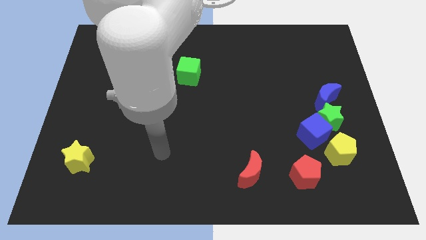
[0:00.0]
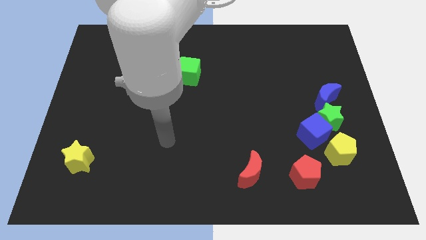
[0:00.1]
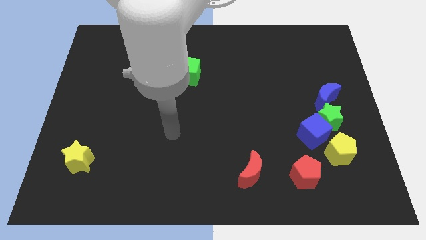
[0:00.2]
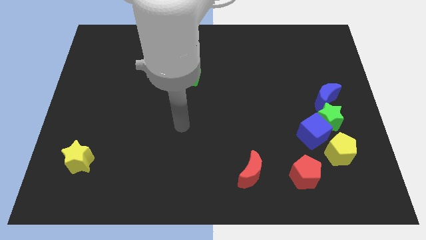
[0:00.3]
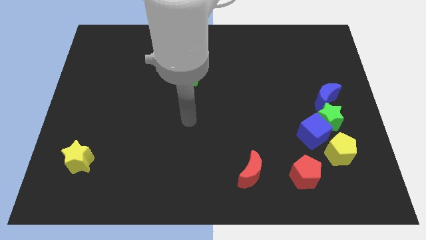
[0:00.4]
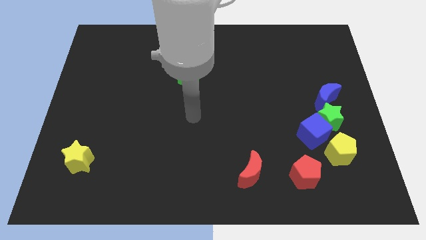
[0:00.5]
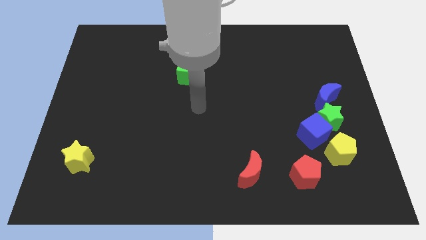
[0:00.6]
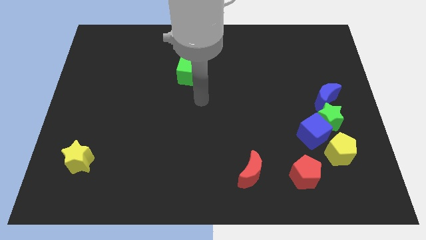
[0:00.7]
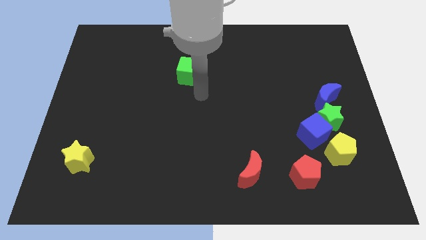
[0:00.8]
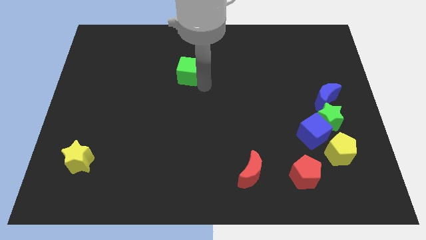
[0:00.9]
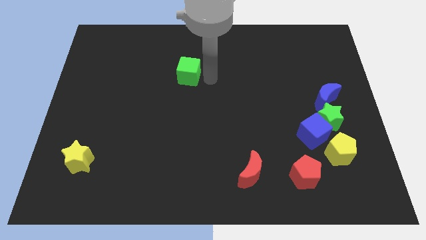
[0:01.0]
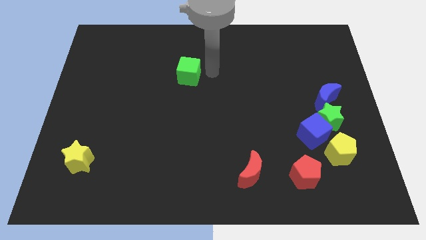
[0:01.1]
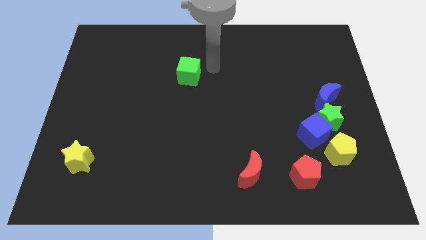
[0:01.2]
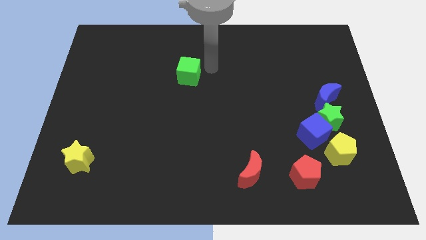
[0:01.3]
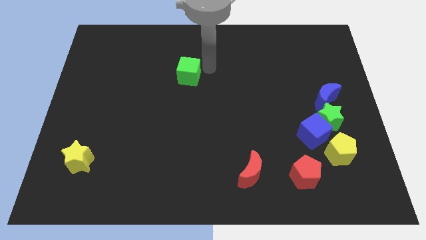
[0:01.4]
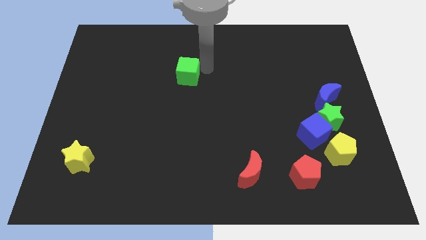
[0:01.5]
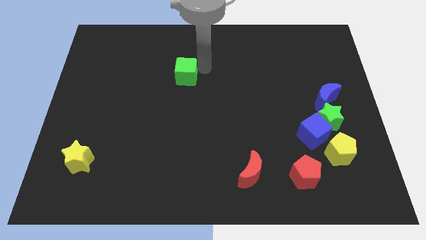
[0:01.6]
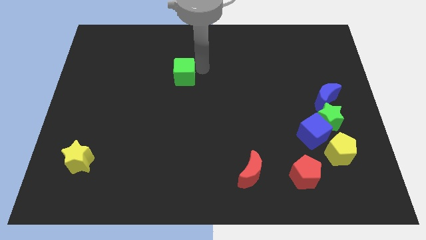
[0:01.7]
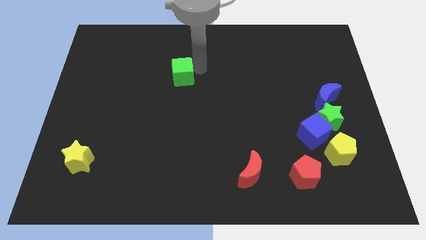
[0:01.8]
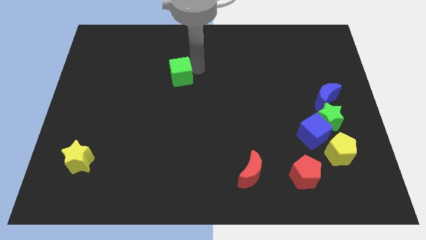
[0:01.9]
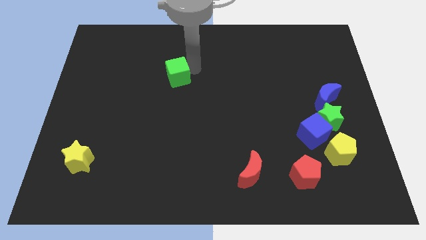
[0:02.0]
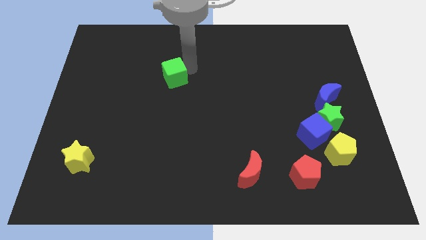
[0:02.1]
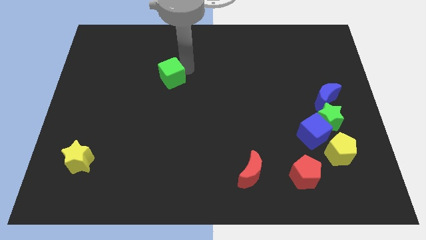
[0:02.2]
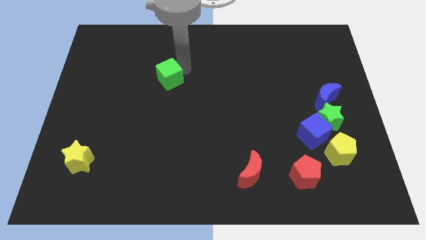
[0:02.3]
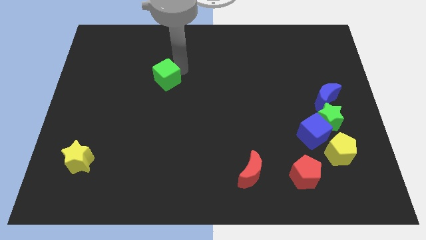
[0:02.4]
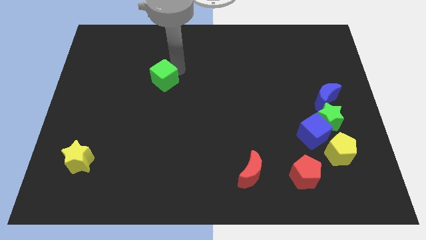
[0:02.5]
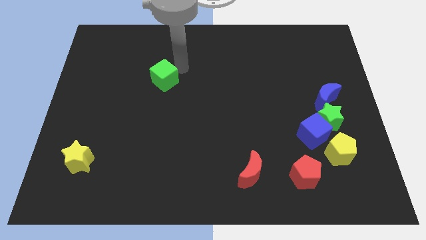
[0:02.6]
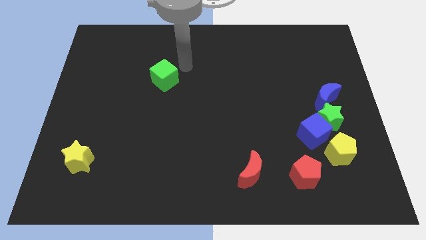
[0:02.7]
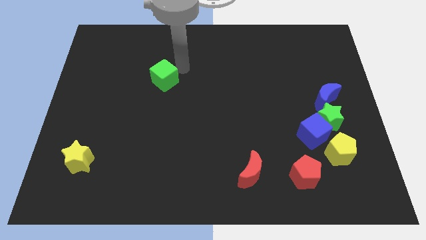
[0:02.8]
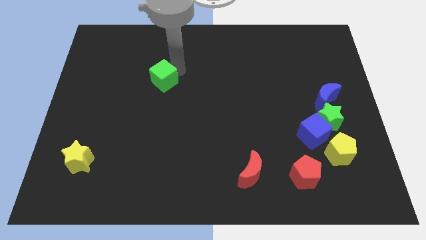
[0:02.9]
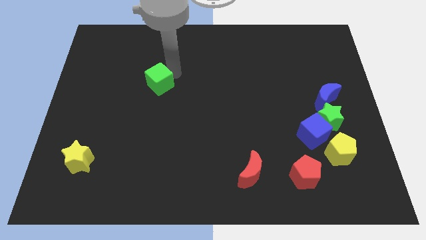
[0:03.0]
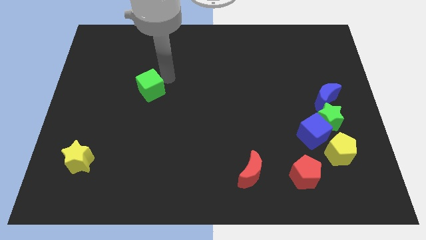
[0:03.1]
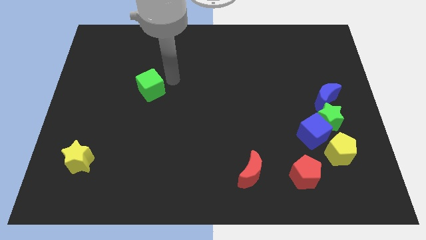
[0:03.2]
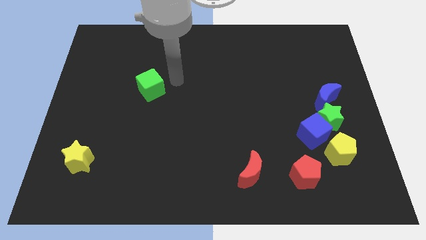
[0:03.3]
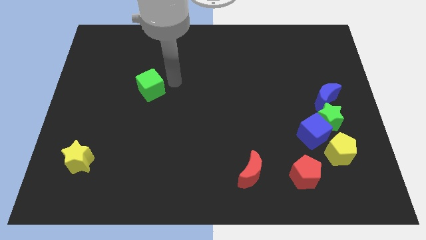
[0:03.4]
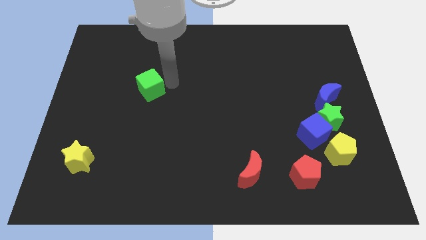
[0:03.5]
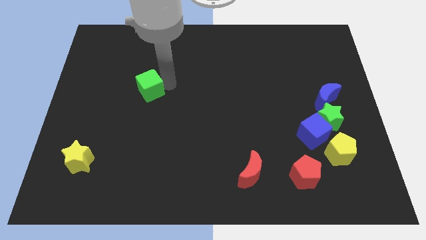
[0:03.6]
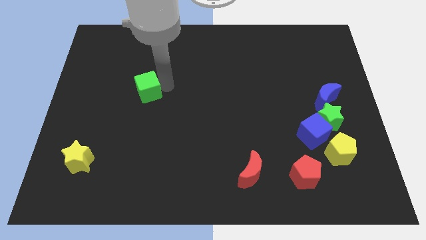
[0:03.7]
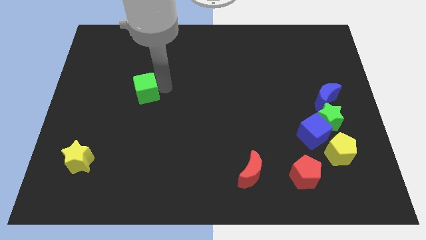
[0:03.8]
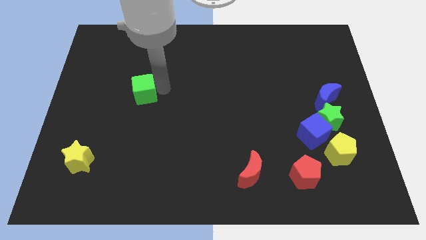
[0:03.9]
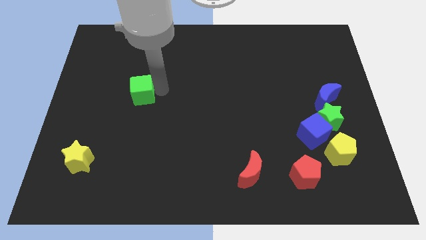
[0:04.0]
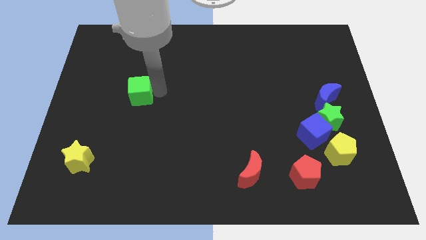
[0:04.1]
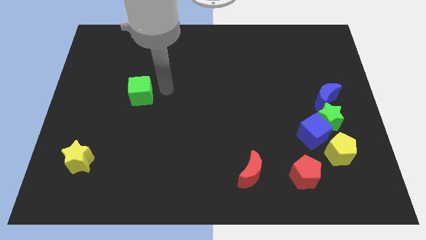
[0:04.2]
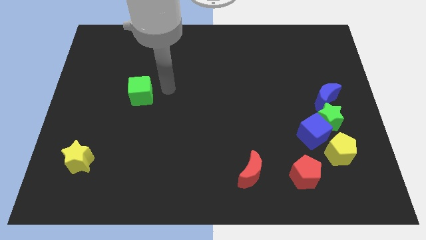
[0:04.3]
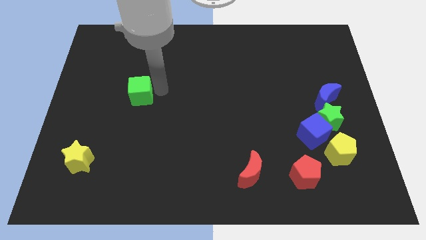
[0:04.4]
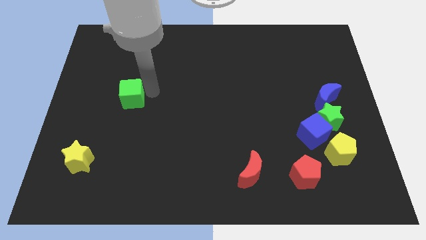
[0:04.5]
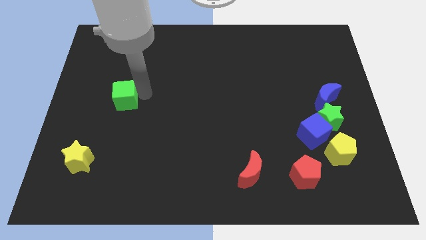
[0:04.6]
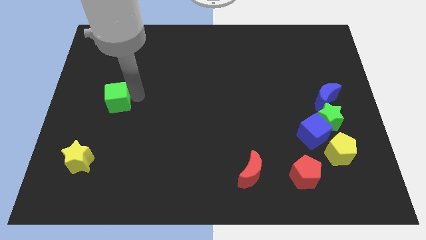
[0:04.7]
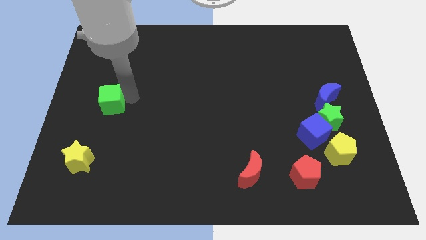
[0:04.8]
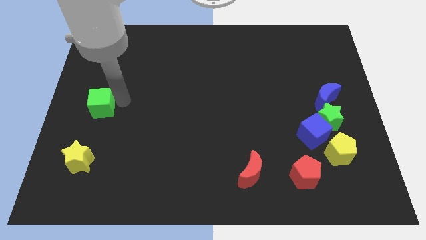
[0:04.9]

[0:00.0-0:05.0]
slide the green cube to the left side

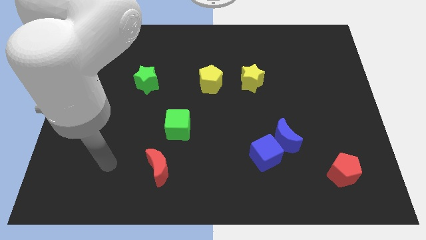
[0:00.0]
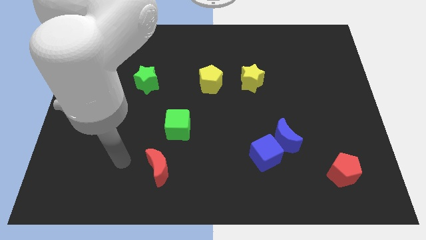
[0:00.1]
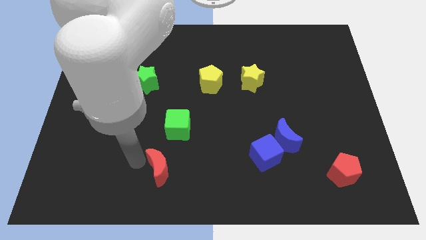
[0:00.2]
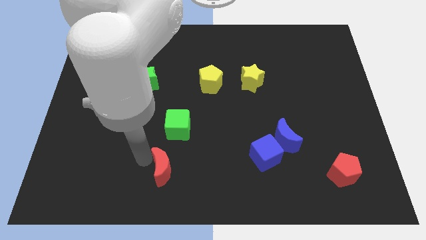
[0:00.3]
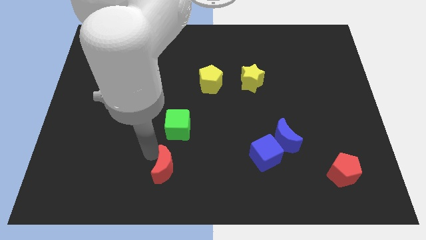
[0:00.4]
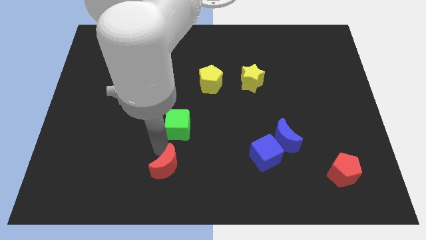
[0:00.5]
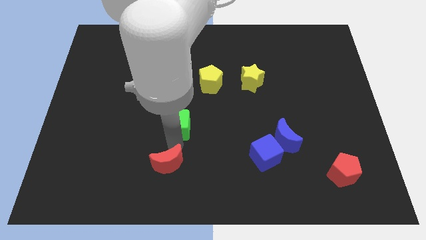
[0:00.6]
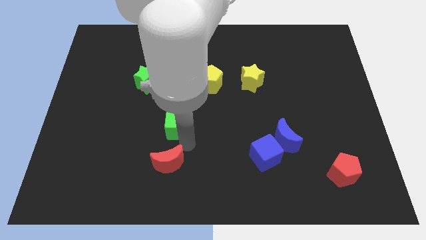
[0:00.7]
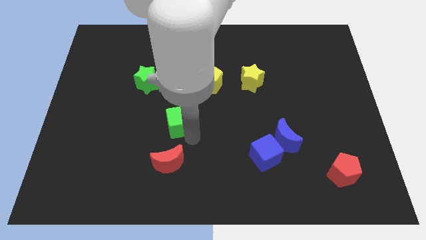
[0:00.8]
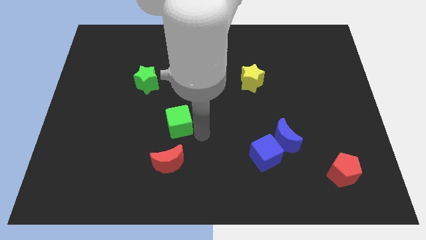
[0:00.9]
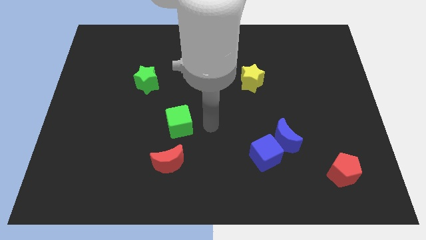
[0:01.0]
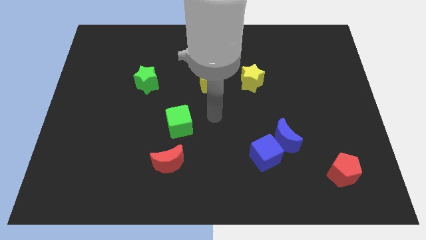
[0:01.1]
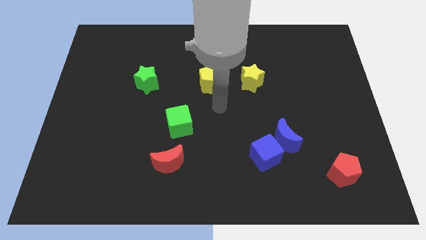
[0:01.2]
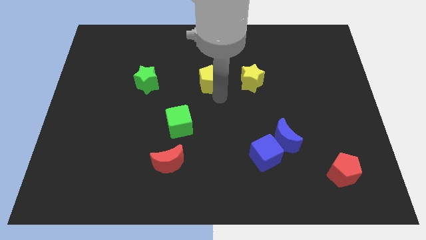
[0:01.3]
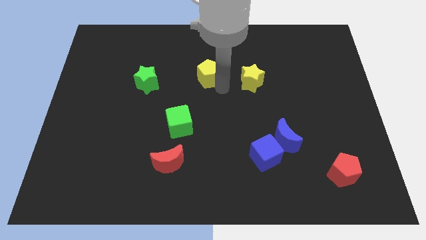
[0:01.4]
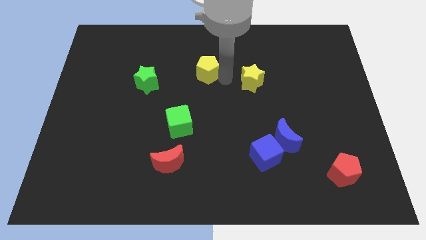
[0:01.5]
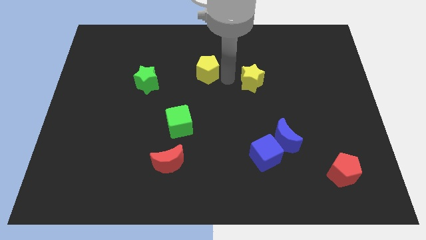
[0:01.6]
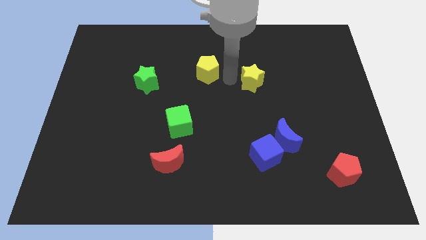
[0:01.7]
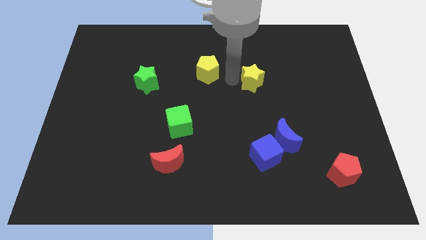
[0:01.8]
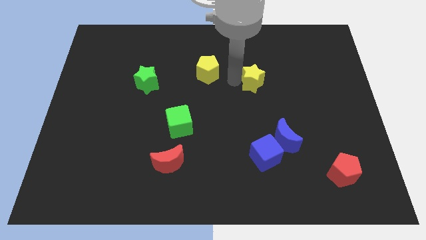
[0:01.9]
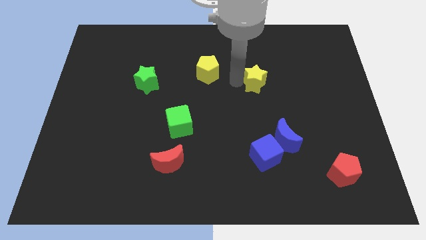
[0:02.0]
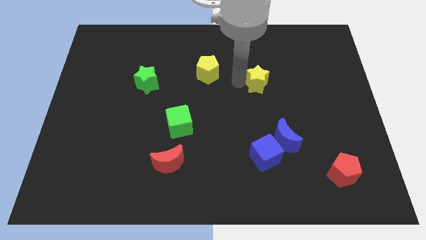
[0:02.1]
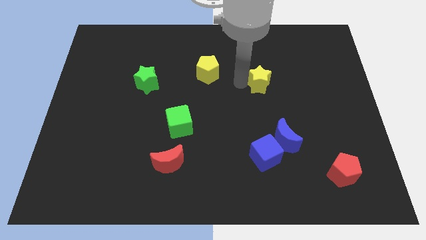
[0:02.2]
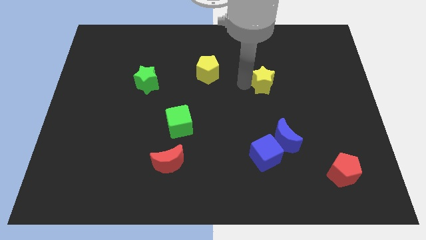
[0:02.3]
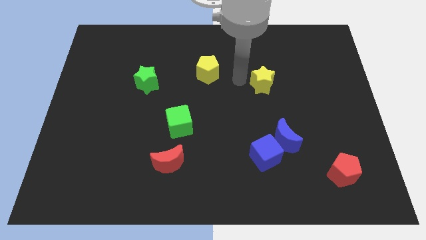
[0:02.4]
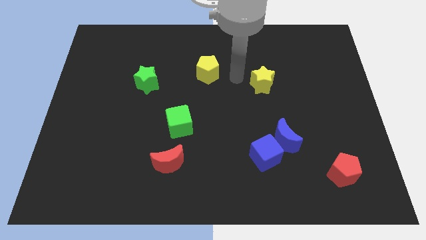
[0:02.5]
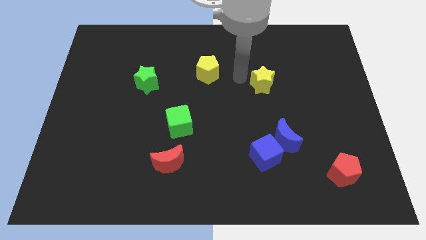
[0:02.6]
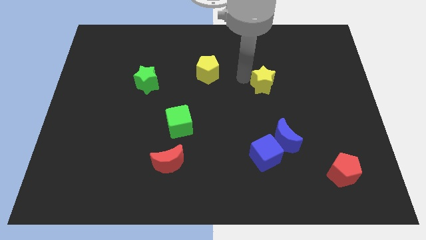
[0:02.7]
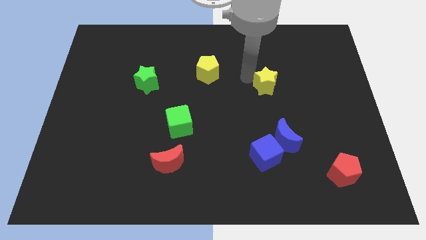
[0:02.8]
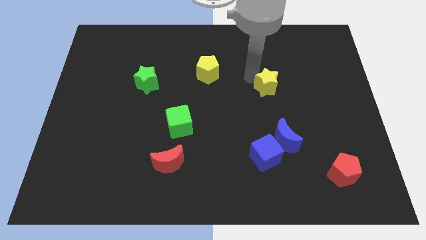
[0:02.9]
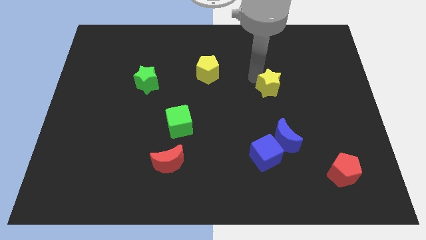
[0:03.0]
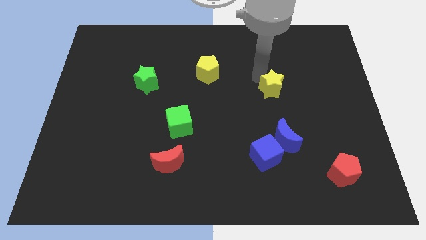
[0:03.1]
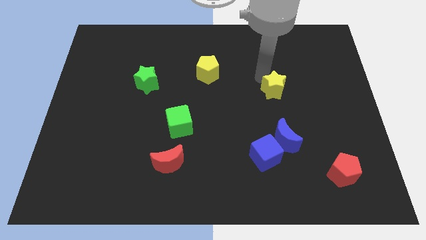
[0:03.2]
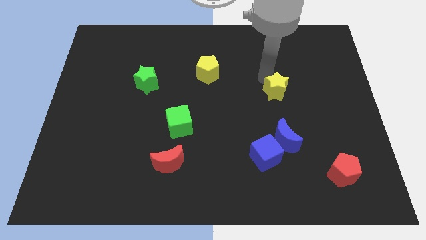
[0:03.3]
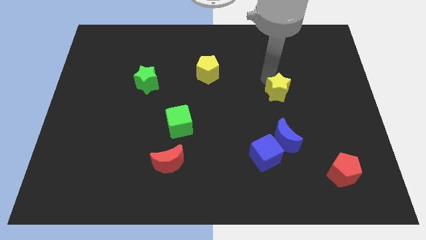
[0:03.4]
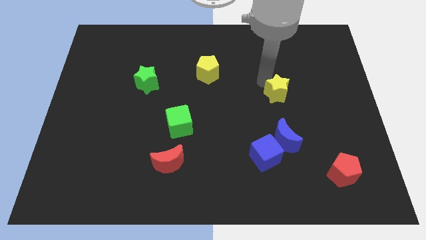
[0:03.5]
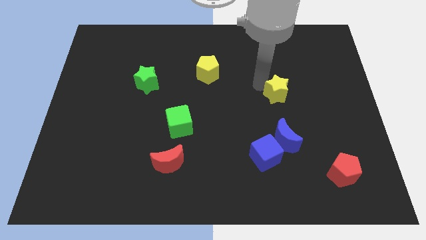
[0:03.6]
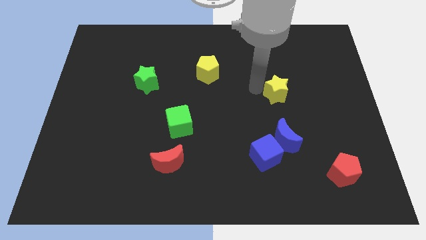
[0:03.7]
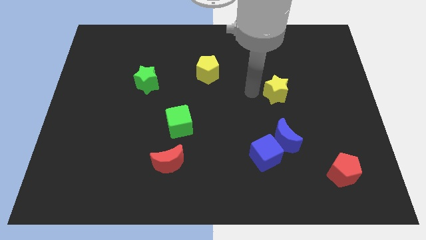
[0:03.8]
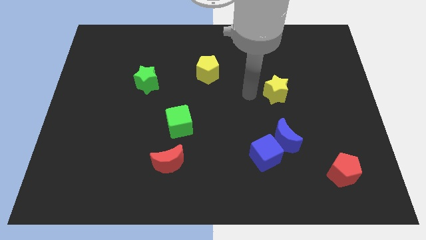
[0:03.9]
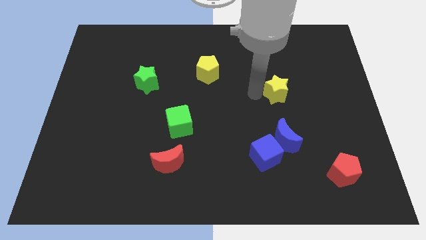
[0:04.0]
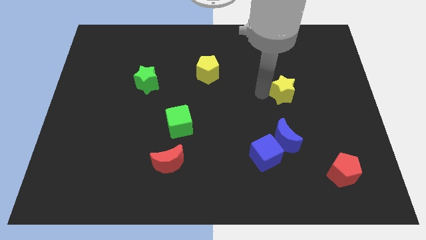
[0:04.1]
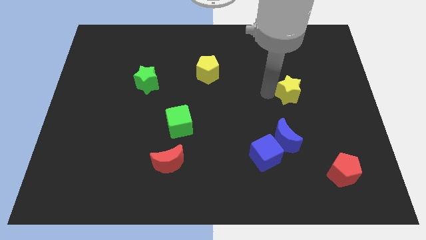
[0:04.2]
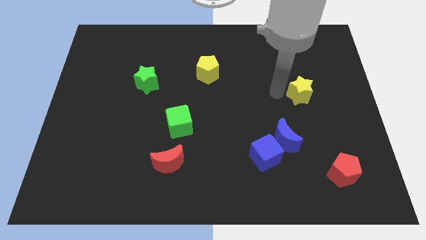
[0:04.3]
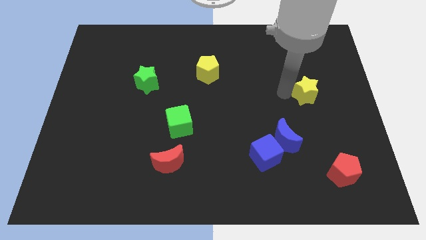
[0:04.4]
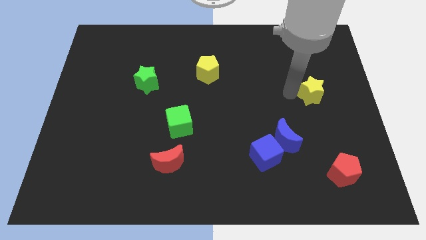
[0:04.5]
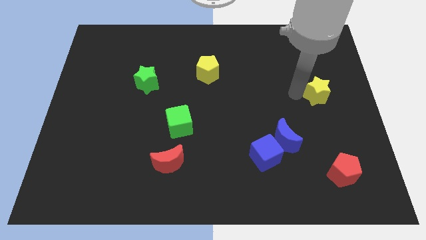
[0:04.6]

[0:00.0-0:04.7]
slide the yellow star to the right side
